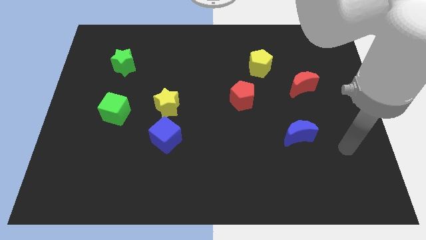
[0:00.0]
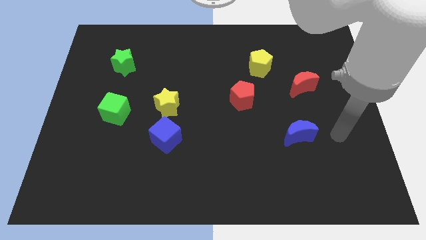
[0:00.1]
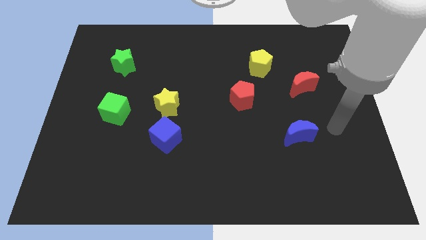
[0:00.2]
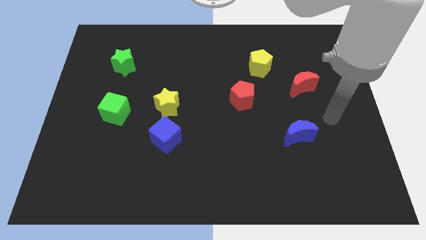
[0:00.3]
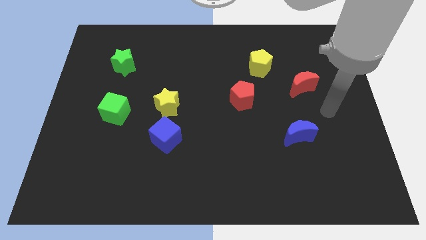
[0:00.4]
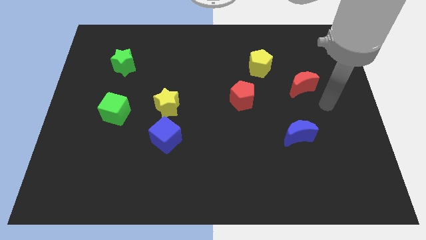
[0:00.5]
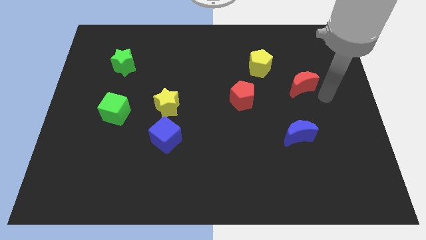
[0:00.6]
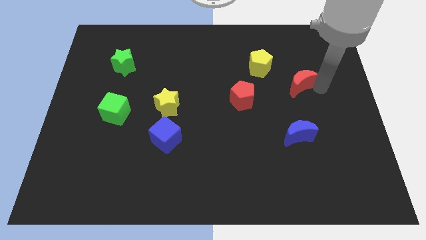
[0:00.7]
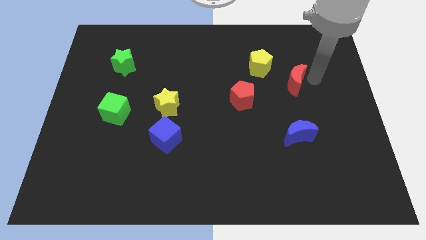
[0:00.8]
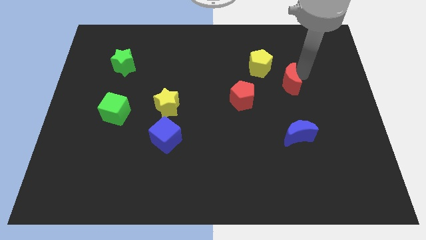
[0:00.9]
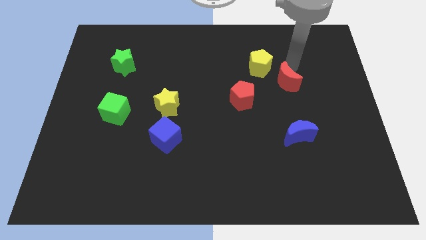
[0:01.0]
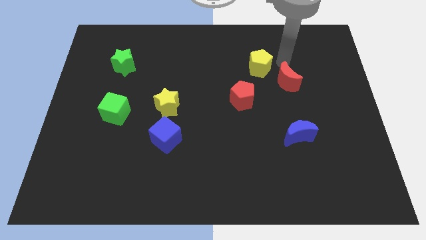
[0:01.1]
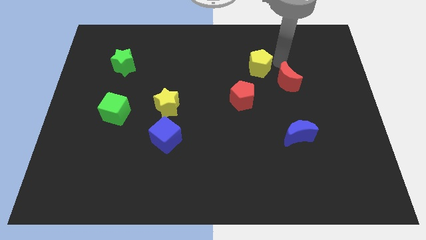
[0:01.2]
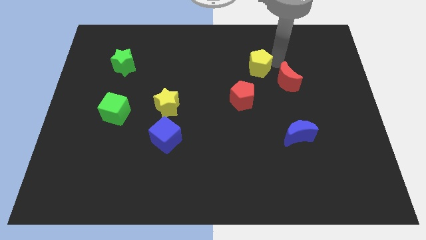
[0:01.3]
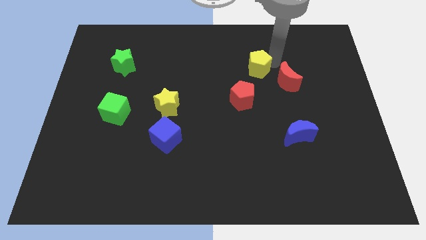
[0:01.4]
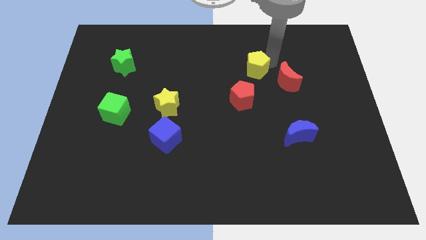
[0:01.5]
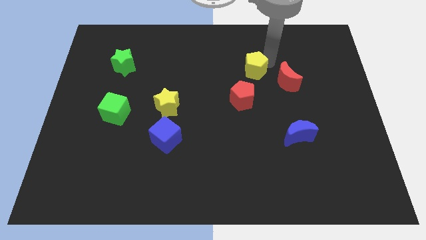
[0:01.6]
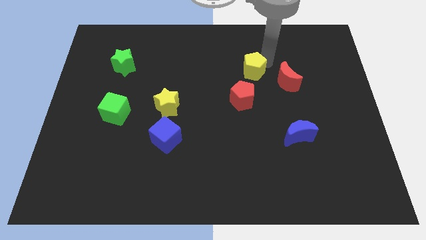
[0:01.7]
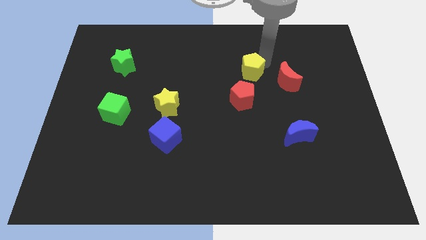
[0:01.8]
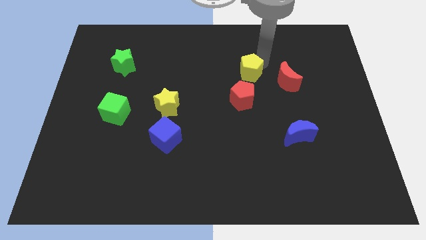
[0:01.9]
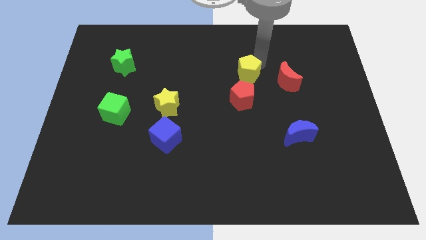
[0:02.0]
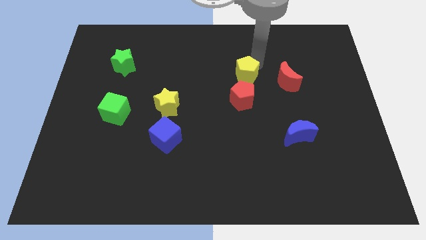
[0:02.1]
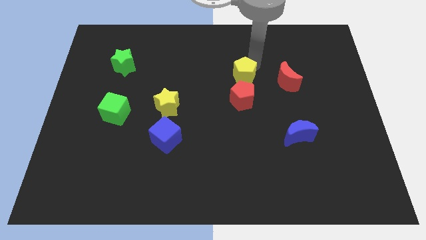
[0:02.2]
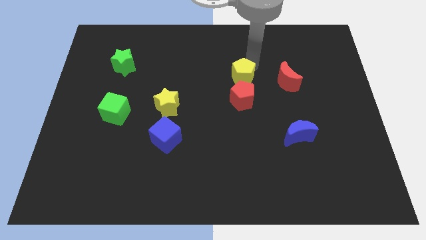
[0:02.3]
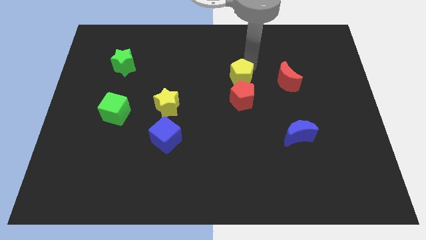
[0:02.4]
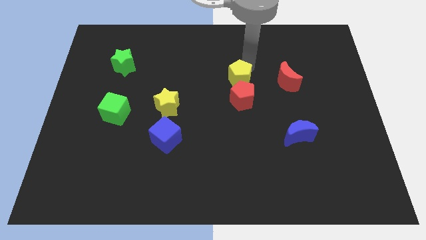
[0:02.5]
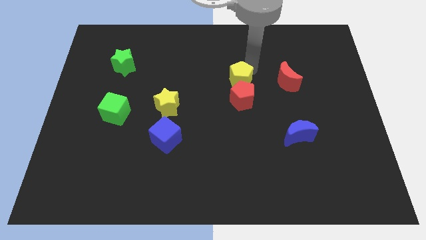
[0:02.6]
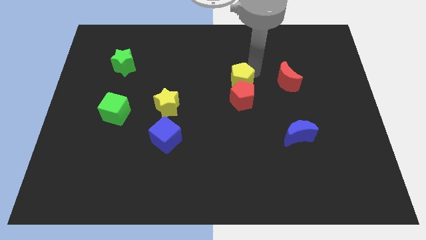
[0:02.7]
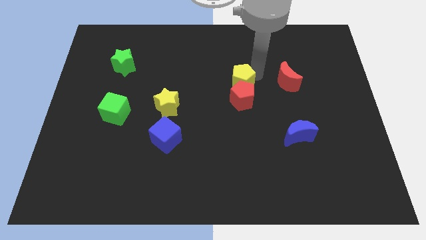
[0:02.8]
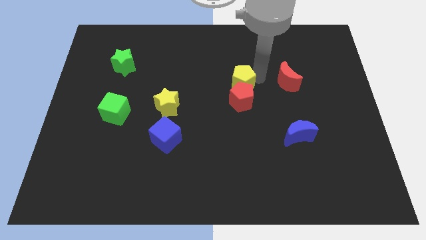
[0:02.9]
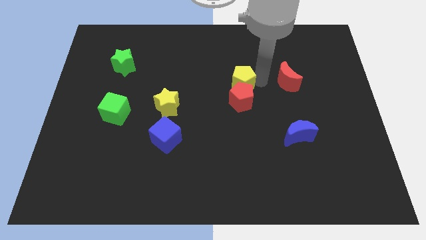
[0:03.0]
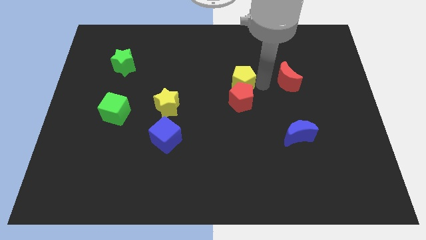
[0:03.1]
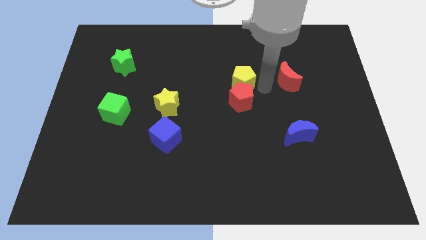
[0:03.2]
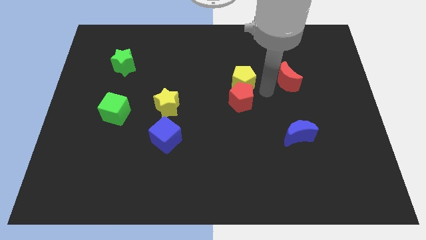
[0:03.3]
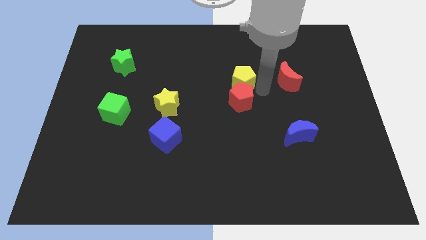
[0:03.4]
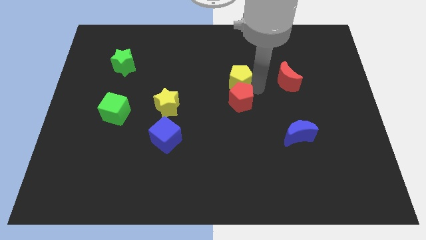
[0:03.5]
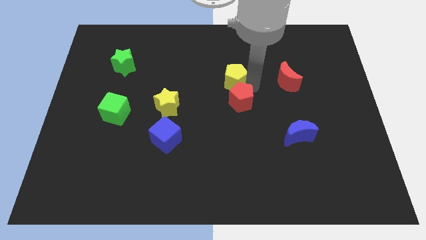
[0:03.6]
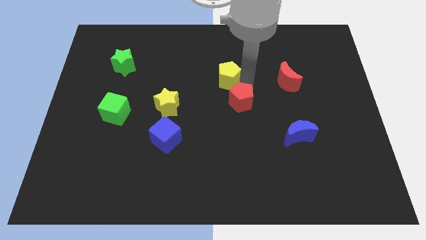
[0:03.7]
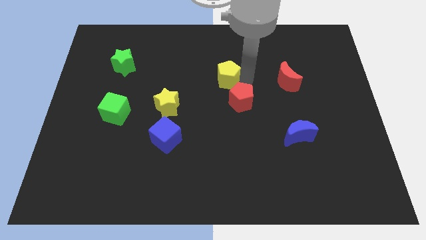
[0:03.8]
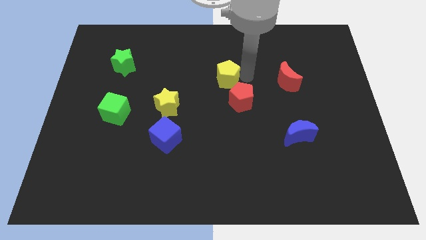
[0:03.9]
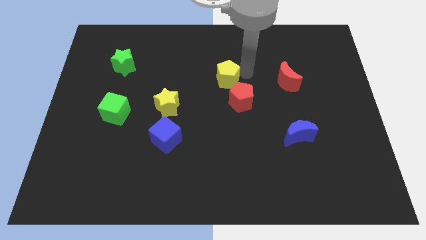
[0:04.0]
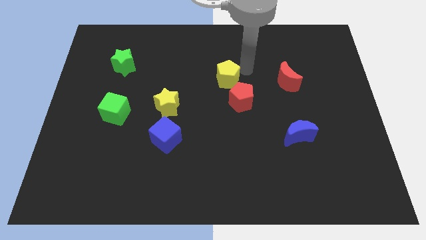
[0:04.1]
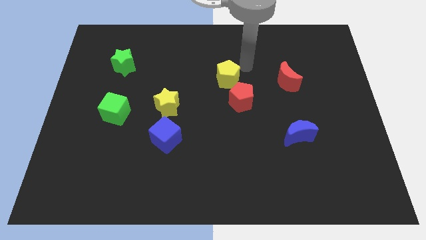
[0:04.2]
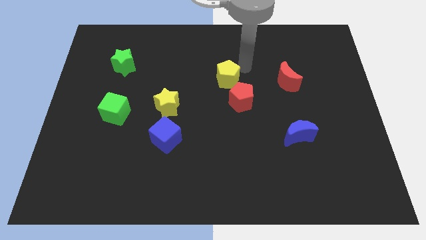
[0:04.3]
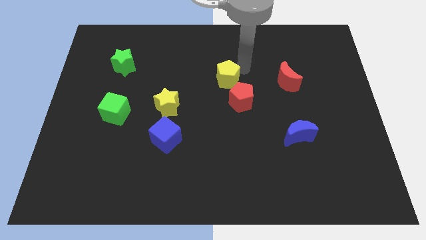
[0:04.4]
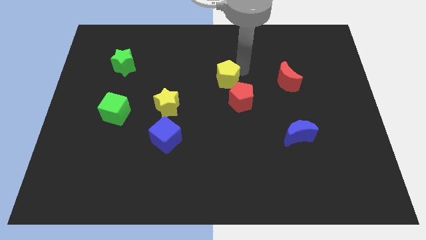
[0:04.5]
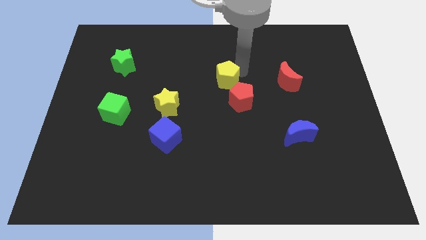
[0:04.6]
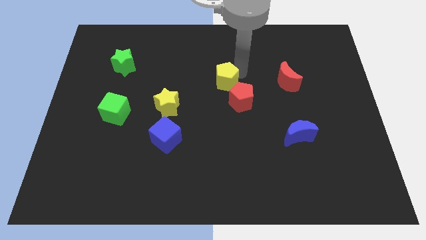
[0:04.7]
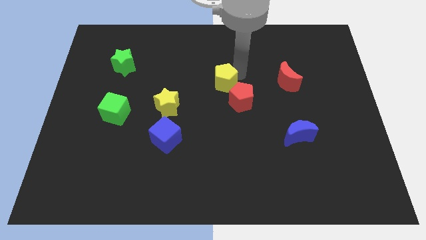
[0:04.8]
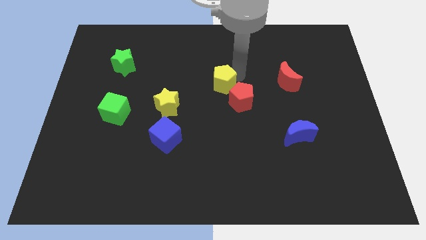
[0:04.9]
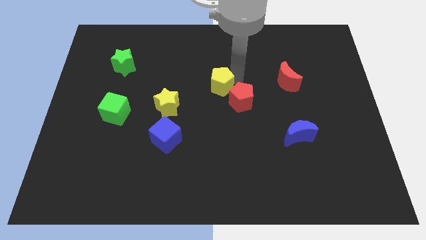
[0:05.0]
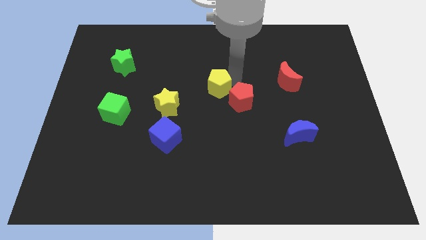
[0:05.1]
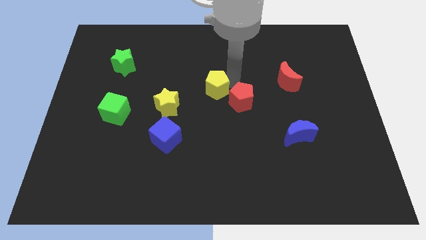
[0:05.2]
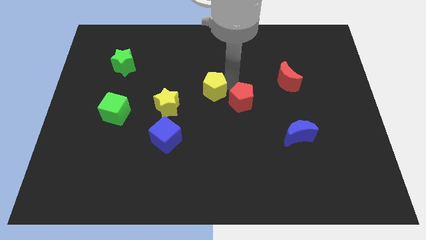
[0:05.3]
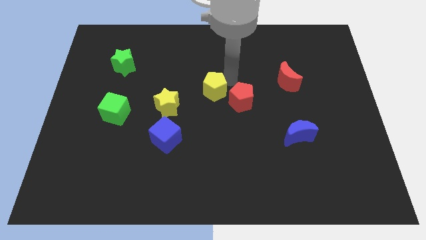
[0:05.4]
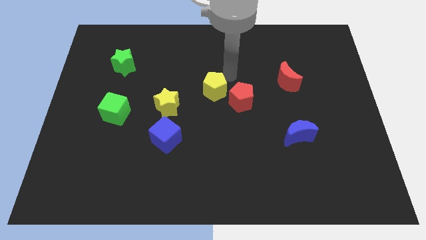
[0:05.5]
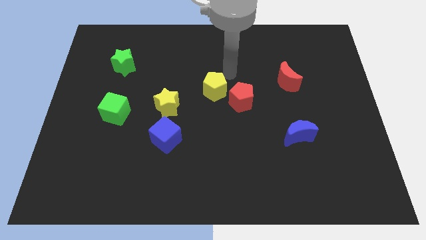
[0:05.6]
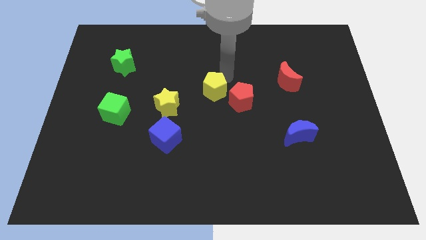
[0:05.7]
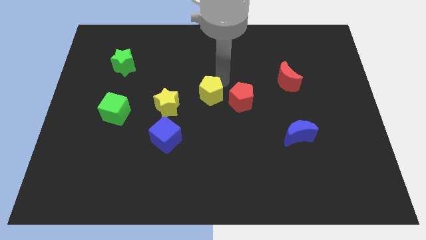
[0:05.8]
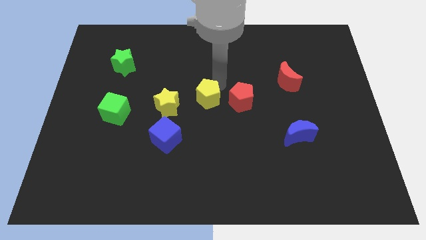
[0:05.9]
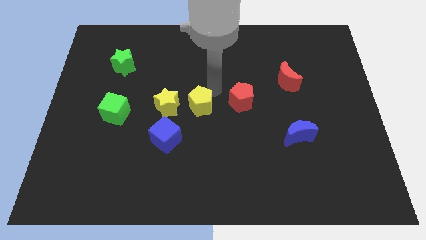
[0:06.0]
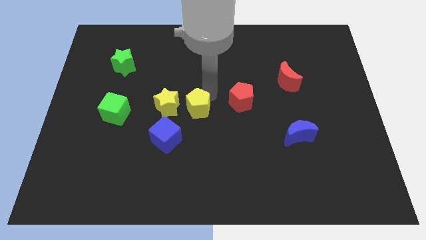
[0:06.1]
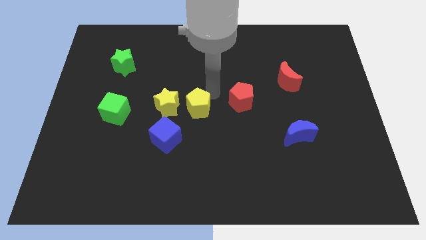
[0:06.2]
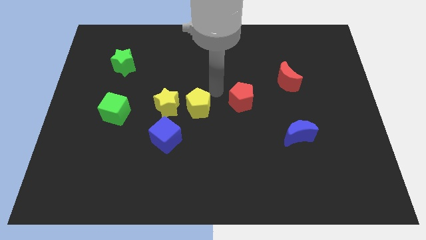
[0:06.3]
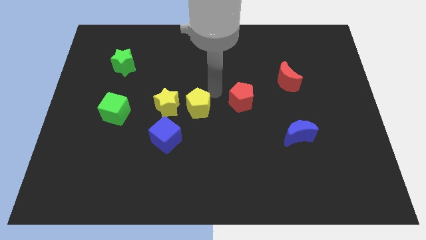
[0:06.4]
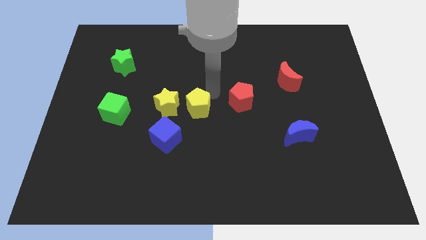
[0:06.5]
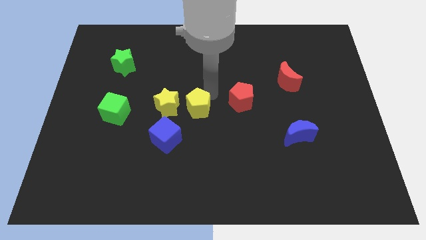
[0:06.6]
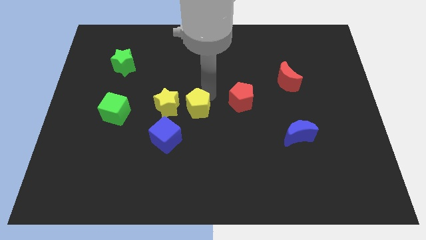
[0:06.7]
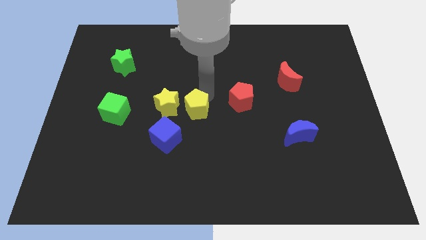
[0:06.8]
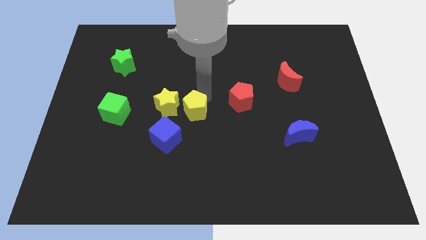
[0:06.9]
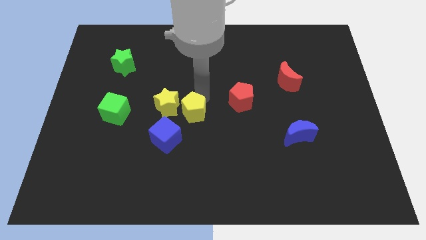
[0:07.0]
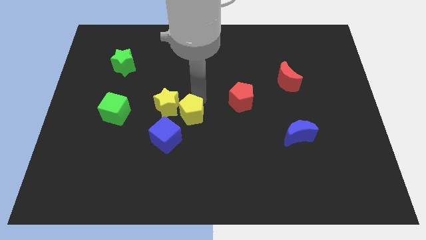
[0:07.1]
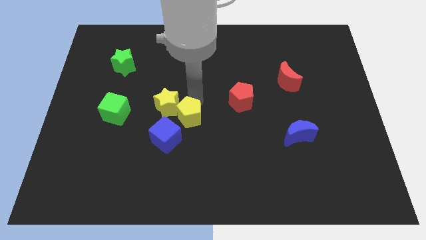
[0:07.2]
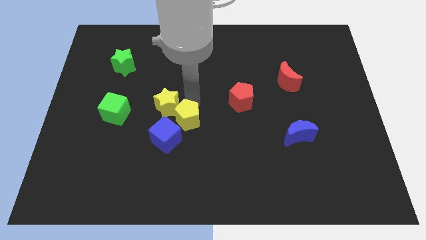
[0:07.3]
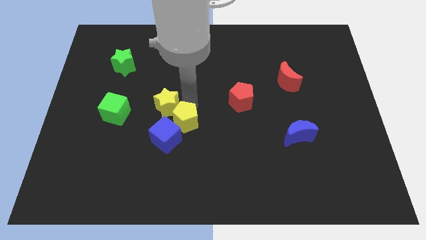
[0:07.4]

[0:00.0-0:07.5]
put the yellow pentagon next to the blue cube
